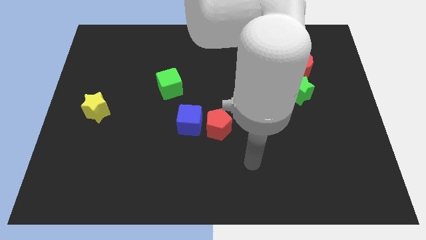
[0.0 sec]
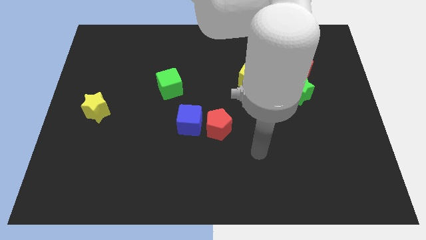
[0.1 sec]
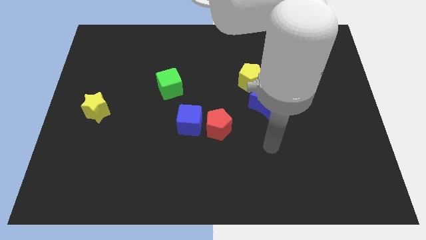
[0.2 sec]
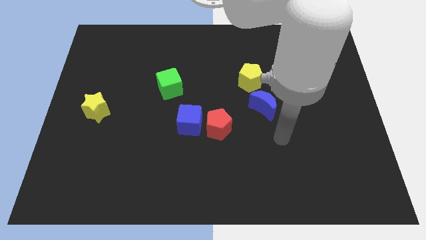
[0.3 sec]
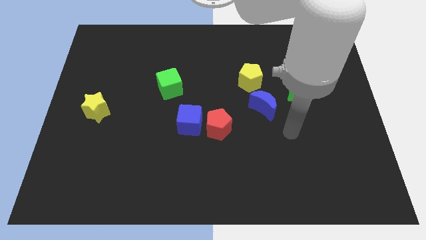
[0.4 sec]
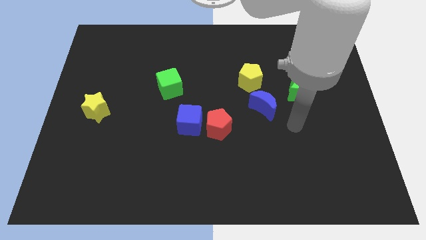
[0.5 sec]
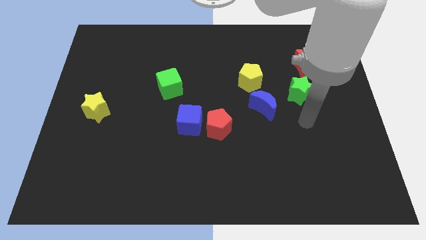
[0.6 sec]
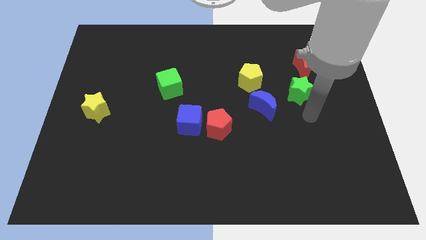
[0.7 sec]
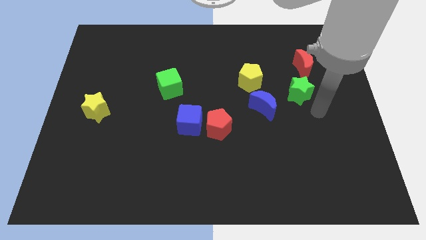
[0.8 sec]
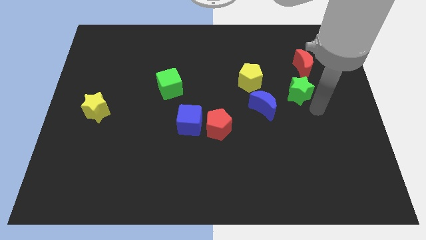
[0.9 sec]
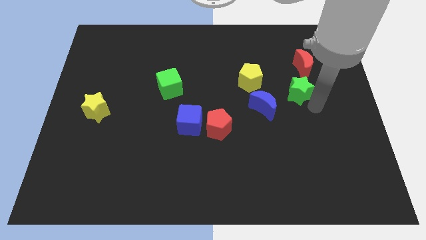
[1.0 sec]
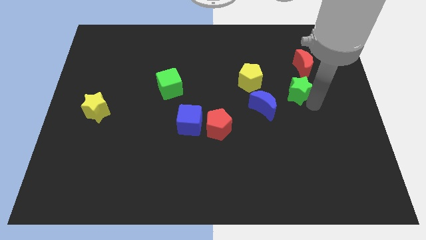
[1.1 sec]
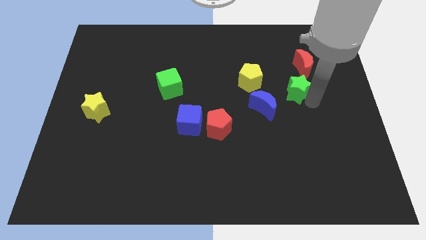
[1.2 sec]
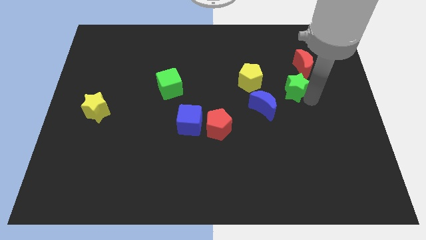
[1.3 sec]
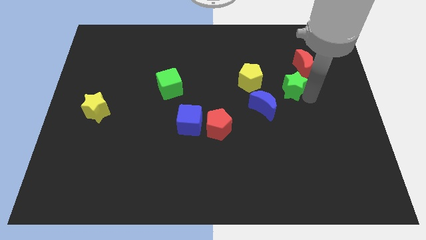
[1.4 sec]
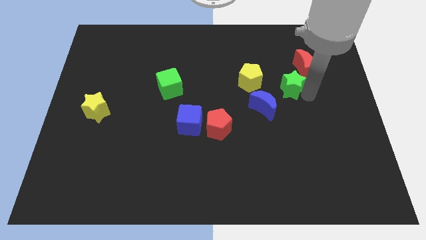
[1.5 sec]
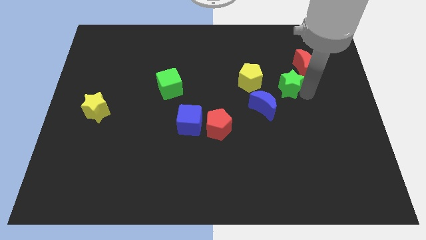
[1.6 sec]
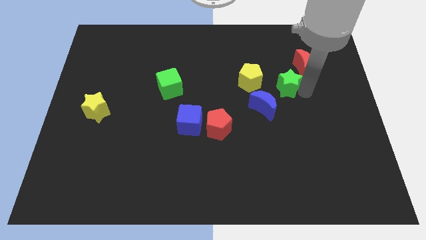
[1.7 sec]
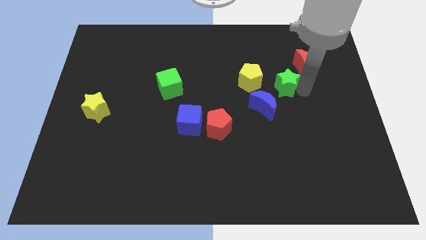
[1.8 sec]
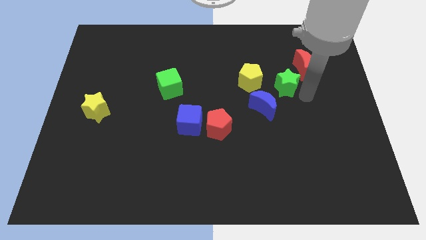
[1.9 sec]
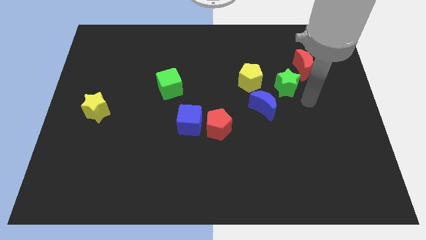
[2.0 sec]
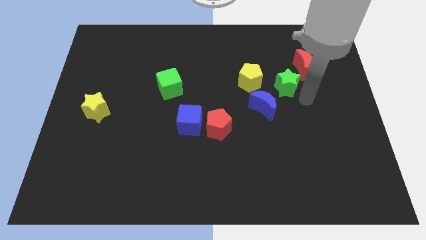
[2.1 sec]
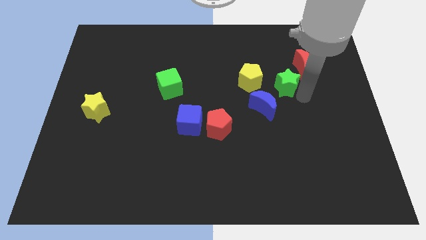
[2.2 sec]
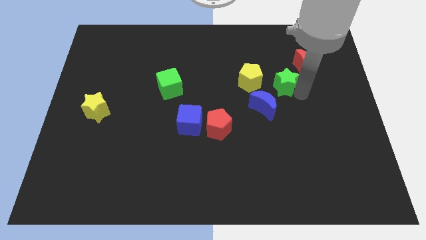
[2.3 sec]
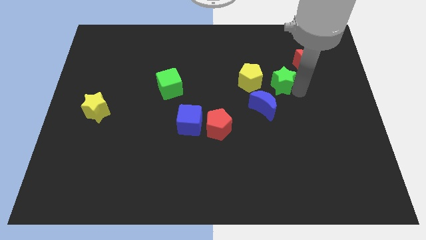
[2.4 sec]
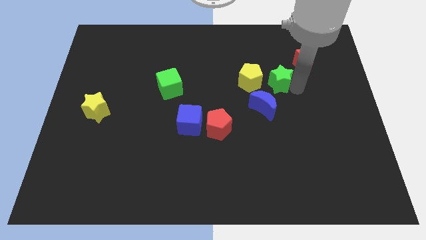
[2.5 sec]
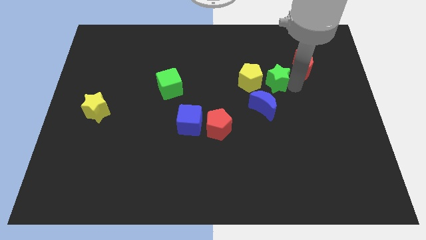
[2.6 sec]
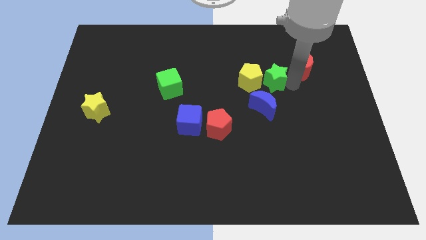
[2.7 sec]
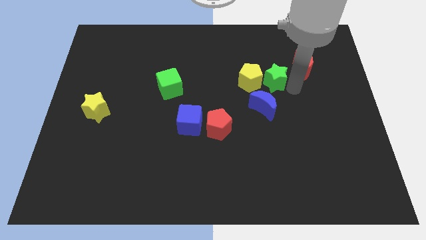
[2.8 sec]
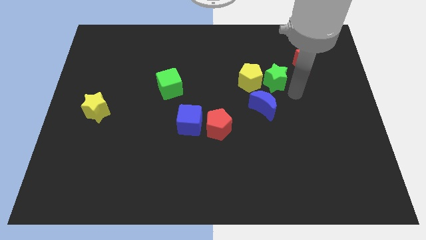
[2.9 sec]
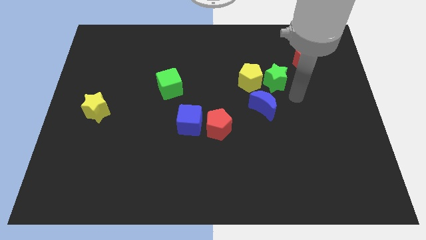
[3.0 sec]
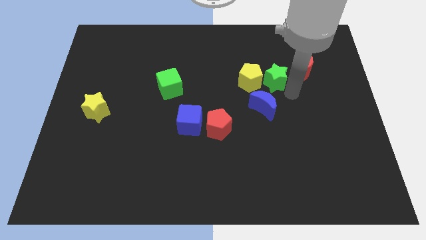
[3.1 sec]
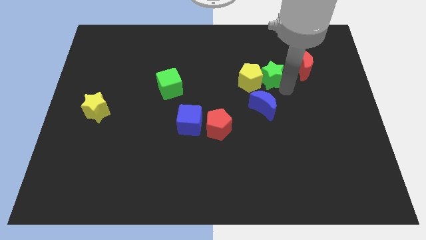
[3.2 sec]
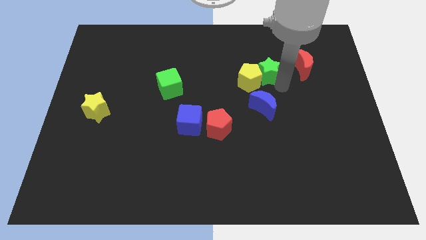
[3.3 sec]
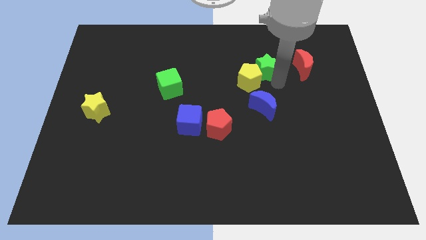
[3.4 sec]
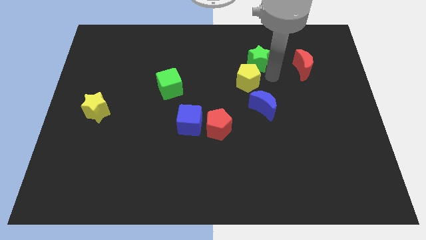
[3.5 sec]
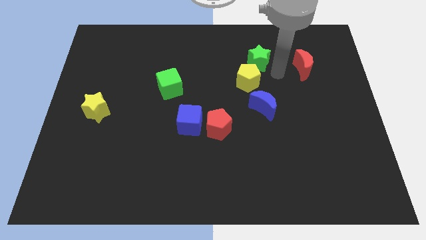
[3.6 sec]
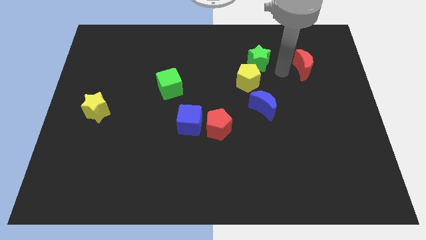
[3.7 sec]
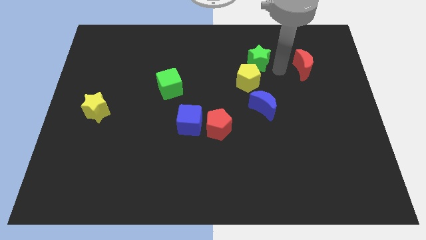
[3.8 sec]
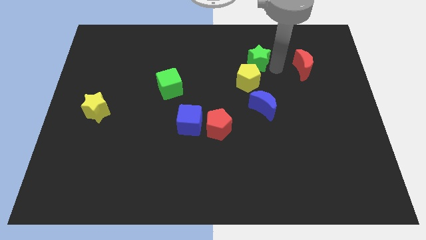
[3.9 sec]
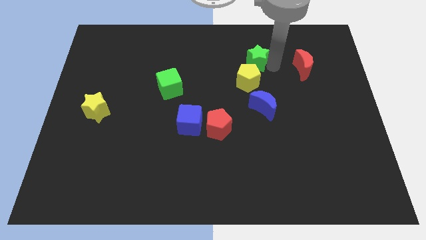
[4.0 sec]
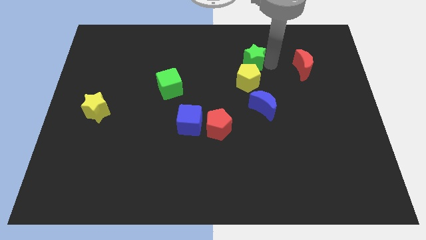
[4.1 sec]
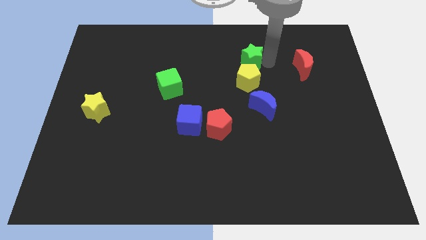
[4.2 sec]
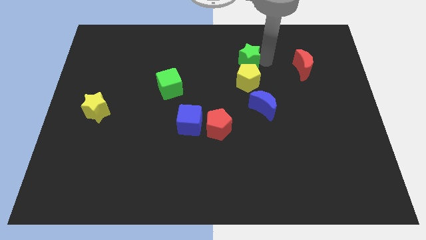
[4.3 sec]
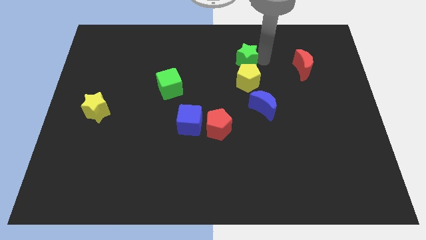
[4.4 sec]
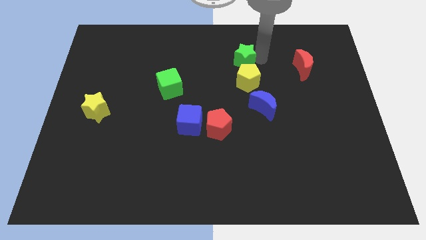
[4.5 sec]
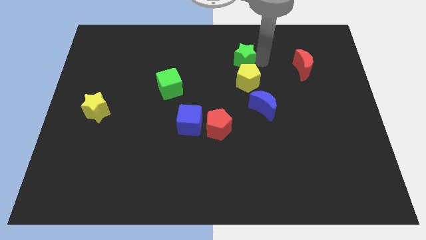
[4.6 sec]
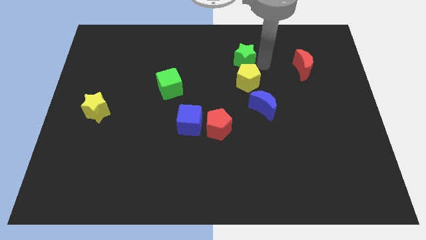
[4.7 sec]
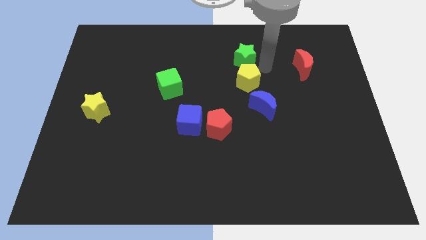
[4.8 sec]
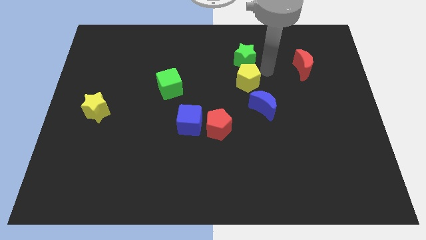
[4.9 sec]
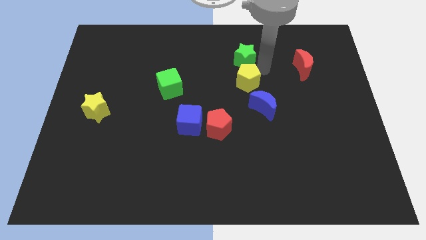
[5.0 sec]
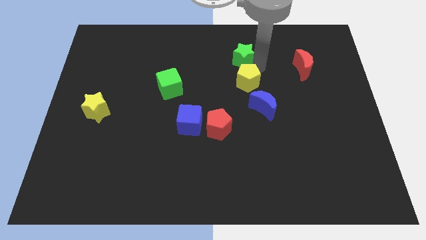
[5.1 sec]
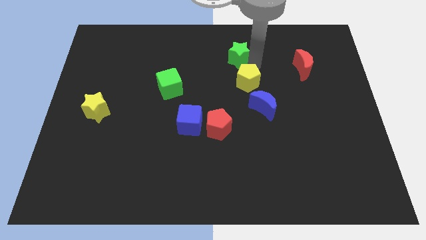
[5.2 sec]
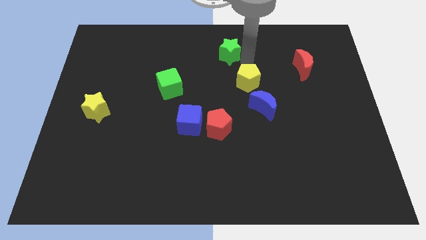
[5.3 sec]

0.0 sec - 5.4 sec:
move the green star to the towards your base
